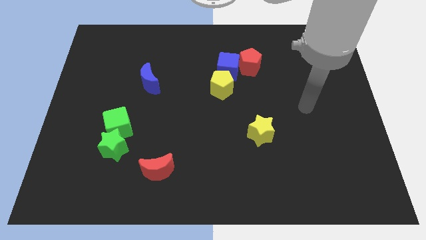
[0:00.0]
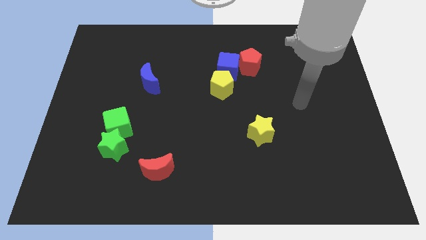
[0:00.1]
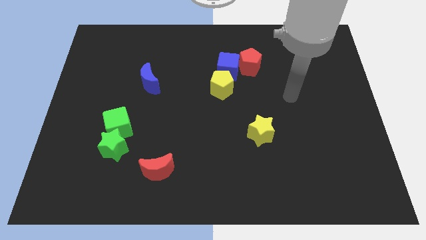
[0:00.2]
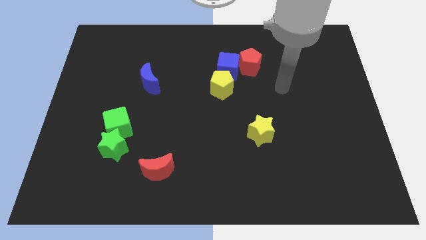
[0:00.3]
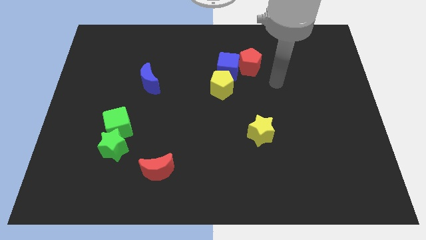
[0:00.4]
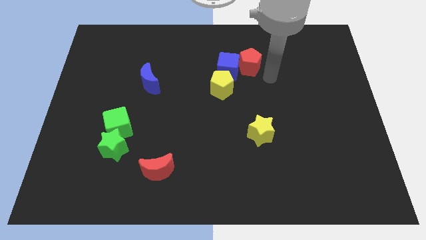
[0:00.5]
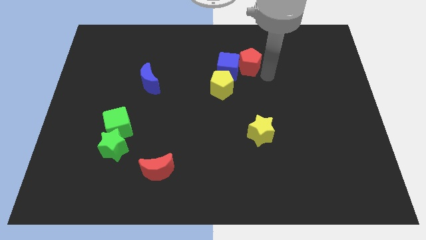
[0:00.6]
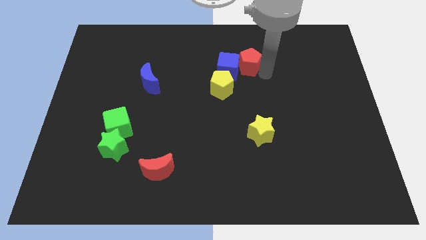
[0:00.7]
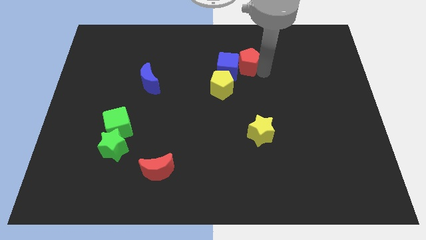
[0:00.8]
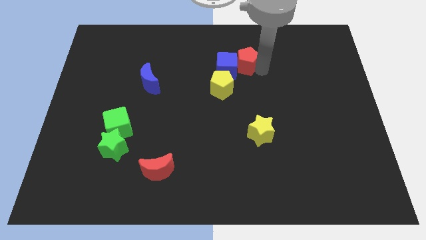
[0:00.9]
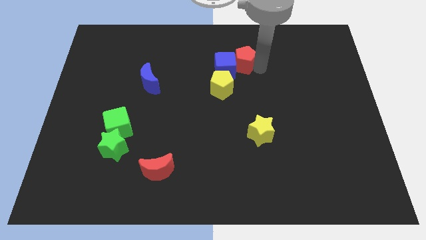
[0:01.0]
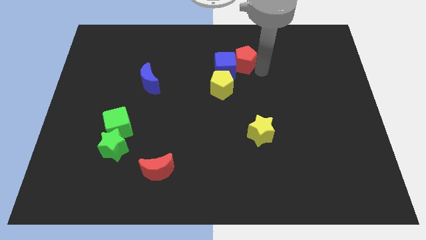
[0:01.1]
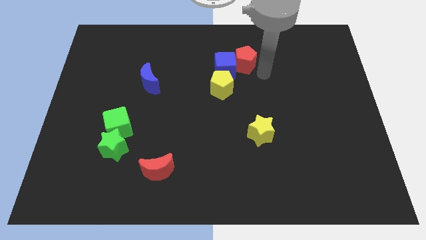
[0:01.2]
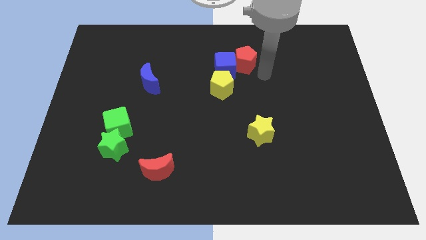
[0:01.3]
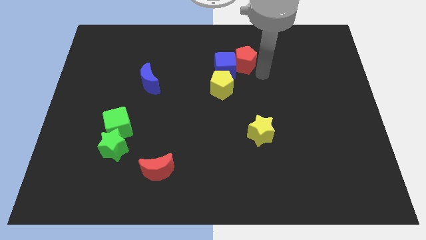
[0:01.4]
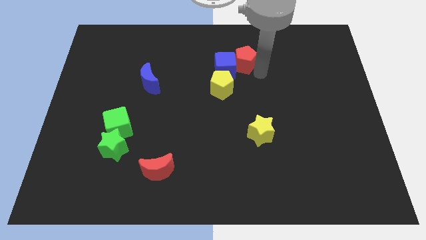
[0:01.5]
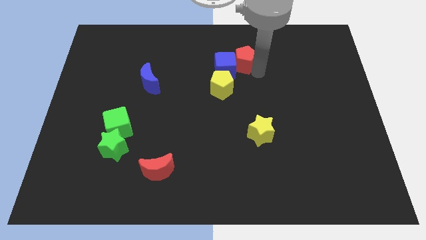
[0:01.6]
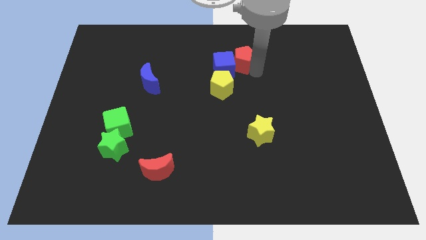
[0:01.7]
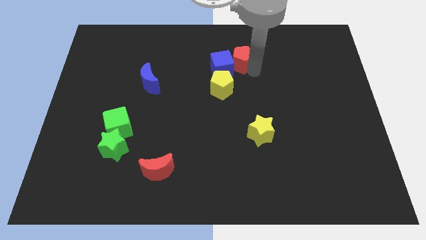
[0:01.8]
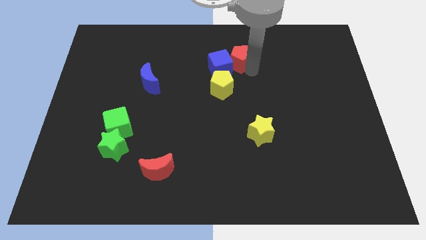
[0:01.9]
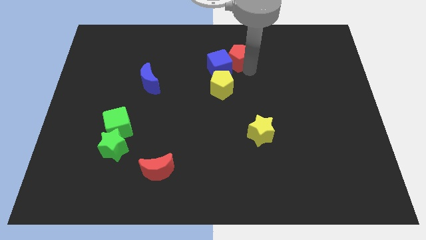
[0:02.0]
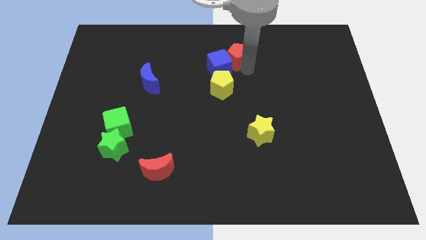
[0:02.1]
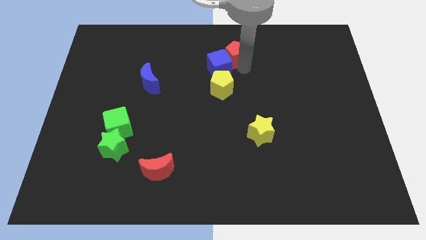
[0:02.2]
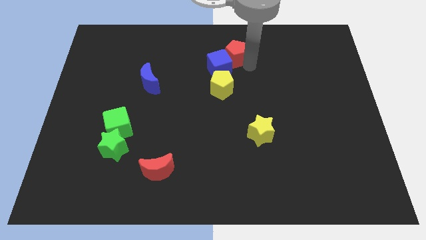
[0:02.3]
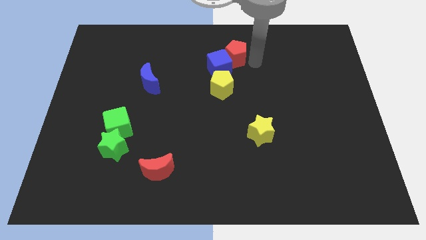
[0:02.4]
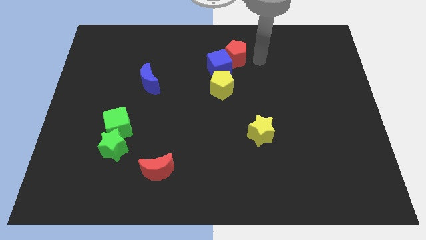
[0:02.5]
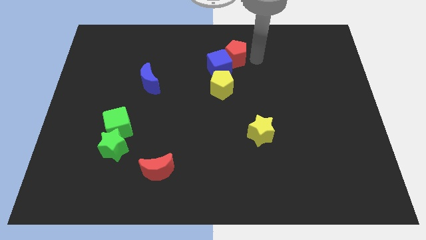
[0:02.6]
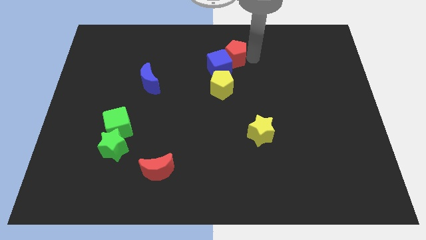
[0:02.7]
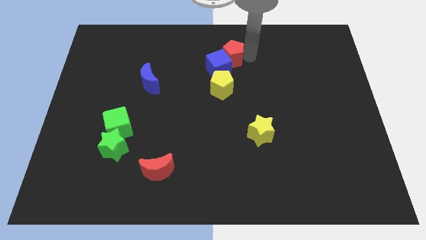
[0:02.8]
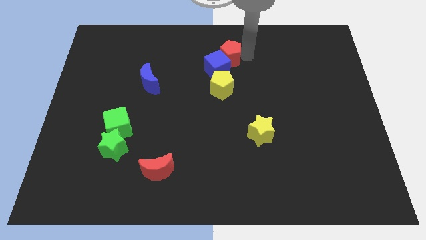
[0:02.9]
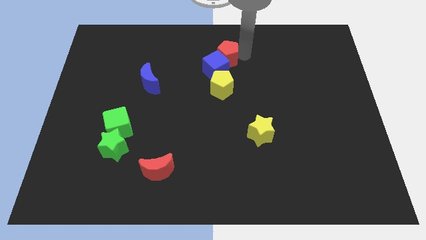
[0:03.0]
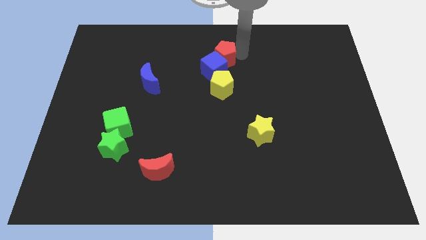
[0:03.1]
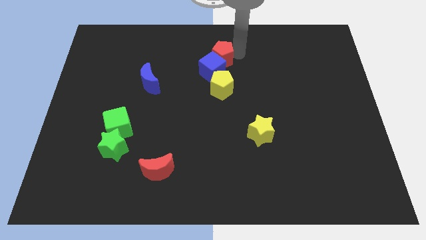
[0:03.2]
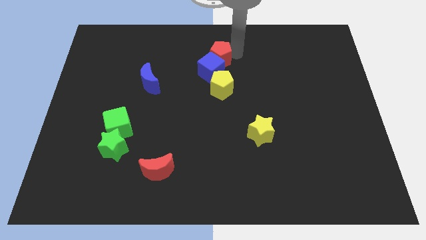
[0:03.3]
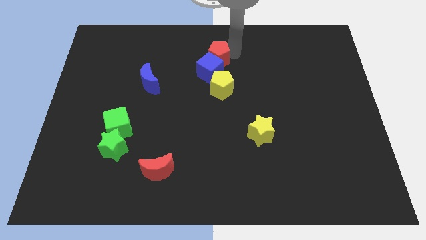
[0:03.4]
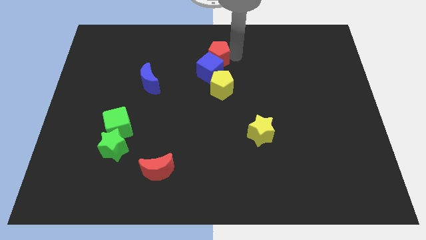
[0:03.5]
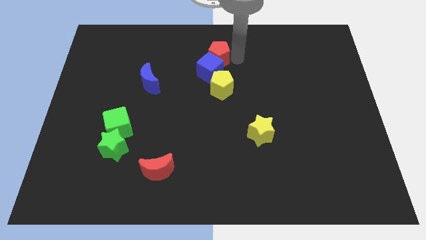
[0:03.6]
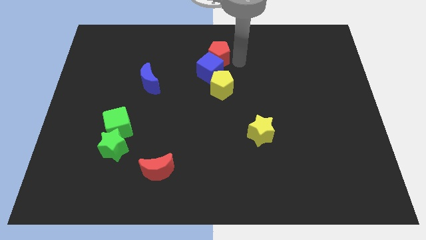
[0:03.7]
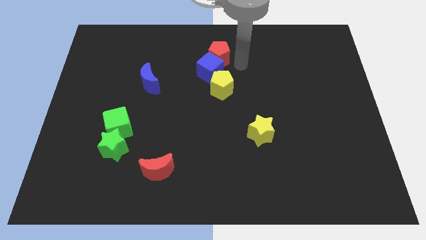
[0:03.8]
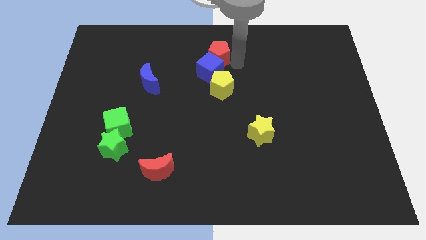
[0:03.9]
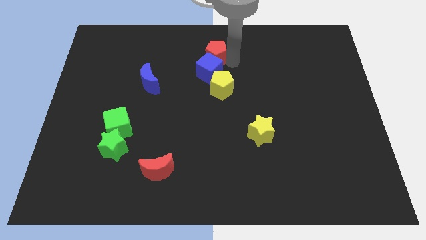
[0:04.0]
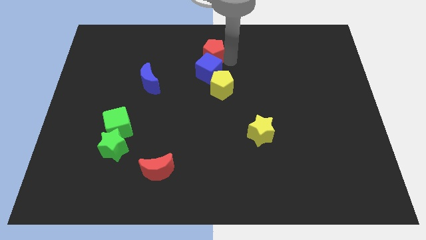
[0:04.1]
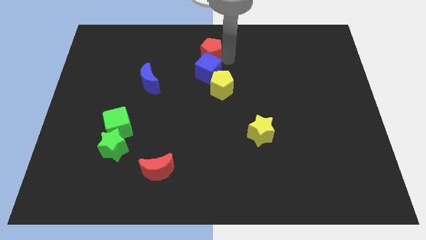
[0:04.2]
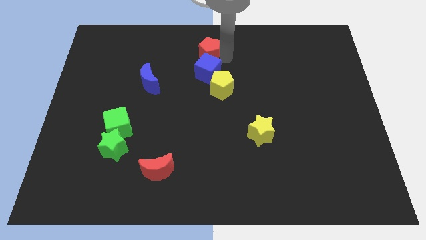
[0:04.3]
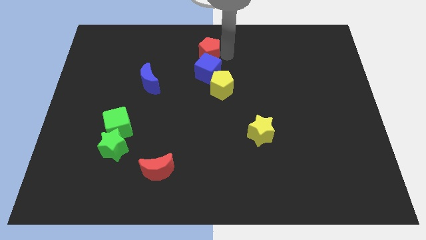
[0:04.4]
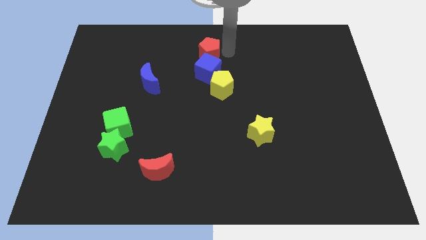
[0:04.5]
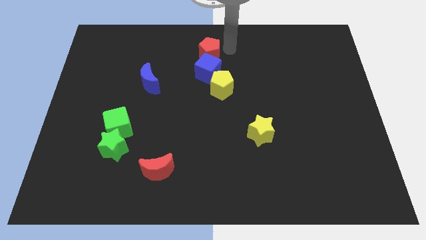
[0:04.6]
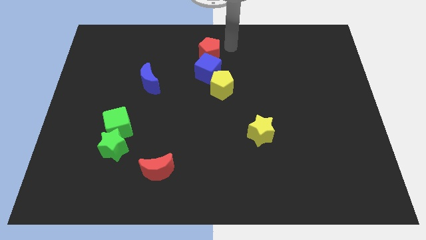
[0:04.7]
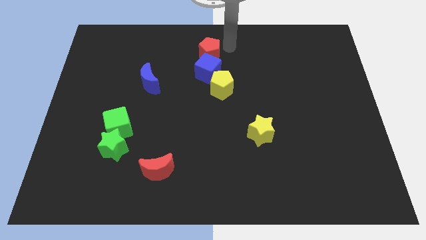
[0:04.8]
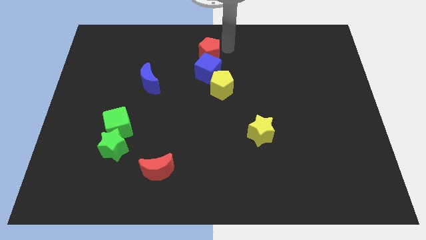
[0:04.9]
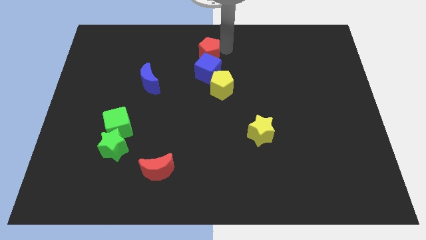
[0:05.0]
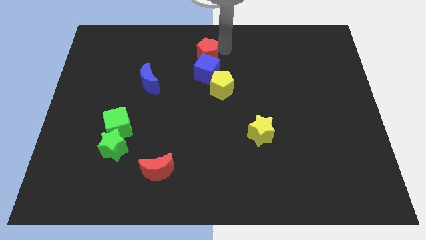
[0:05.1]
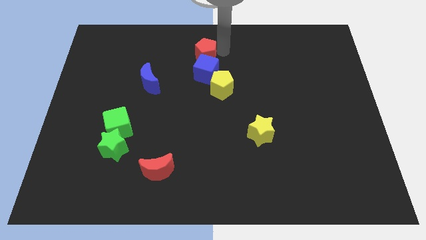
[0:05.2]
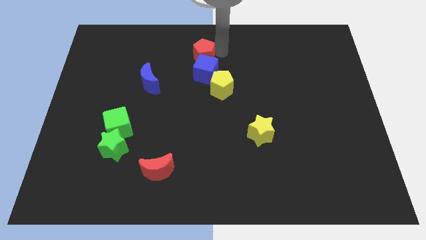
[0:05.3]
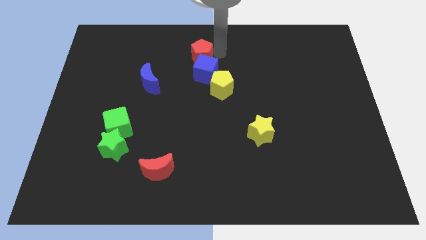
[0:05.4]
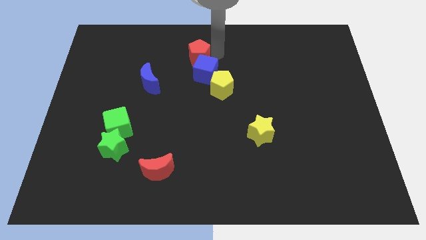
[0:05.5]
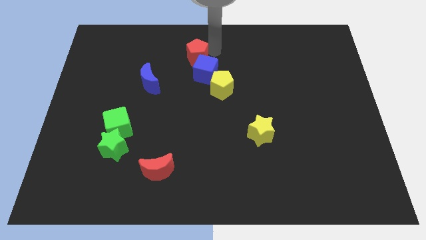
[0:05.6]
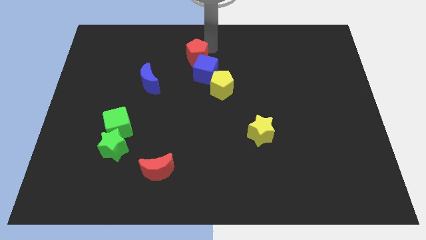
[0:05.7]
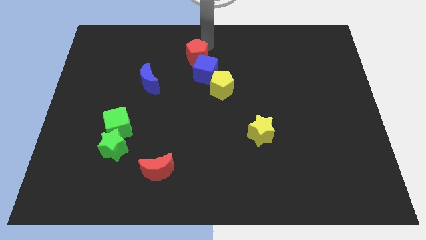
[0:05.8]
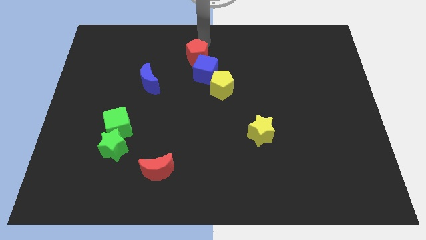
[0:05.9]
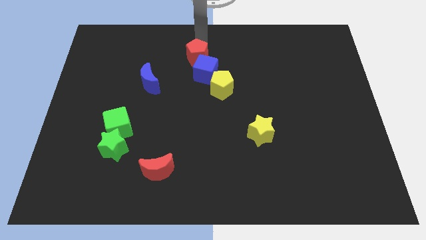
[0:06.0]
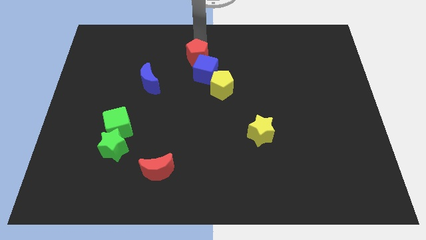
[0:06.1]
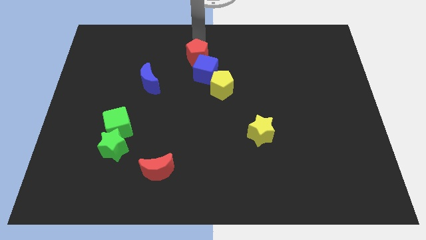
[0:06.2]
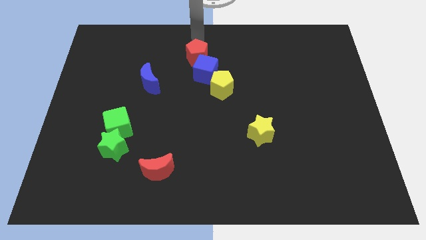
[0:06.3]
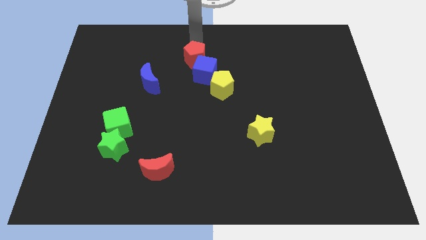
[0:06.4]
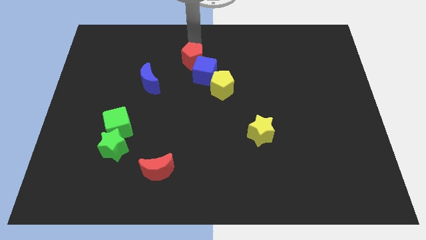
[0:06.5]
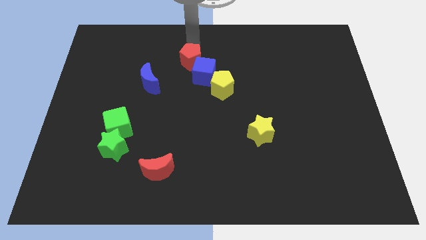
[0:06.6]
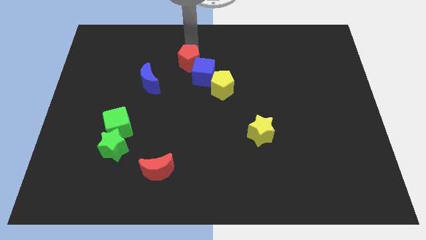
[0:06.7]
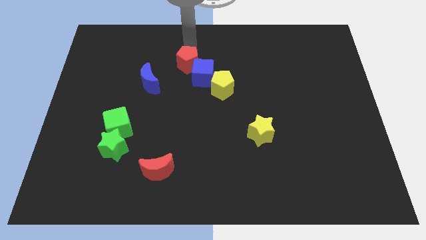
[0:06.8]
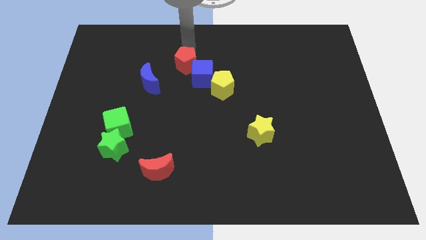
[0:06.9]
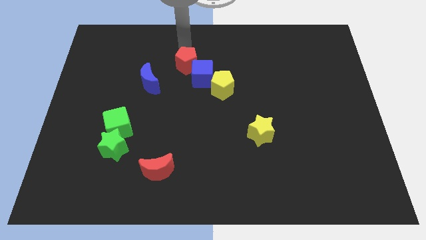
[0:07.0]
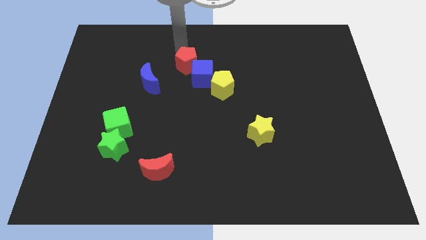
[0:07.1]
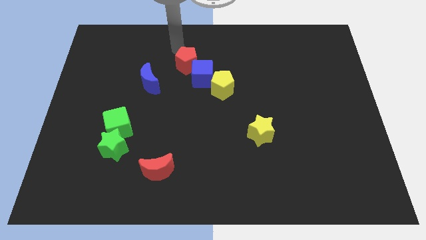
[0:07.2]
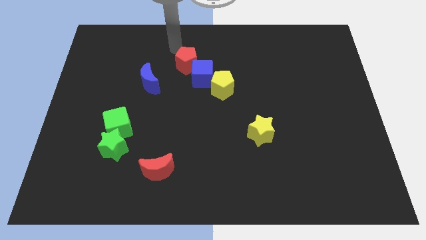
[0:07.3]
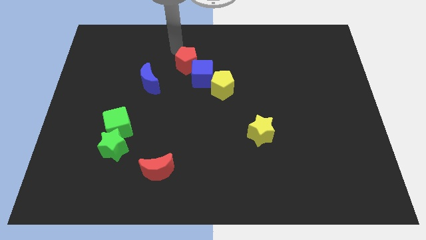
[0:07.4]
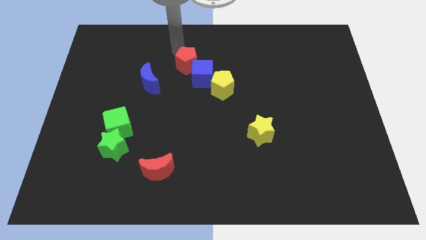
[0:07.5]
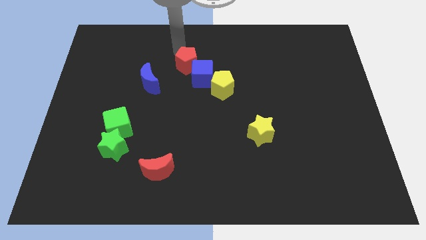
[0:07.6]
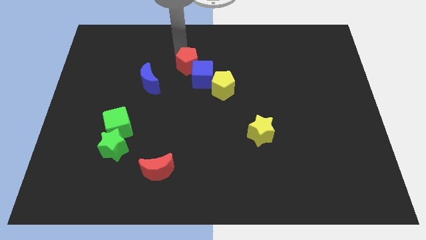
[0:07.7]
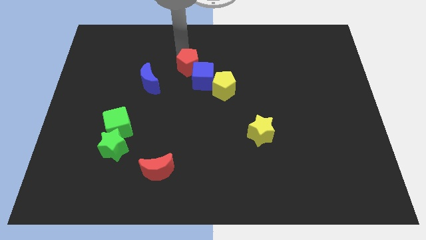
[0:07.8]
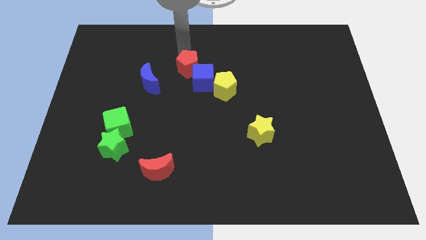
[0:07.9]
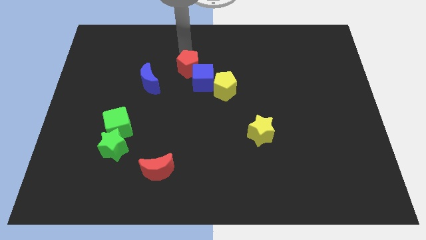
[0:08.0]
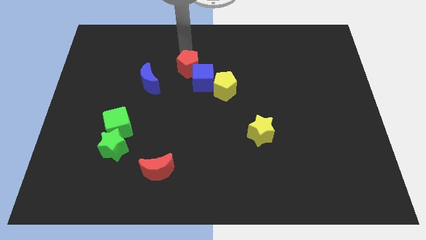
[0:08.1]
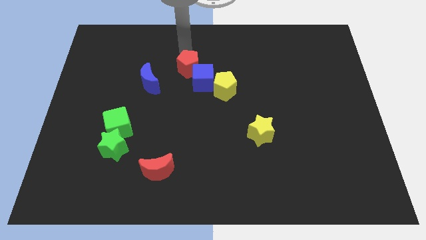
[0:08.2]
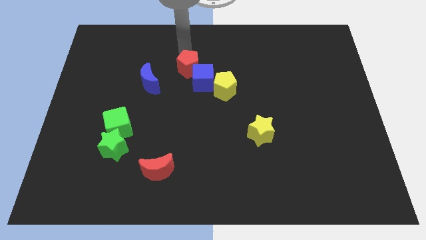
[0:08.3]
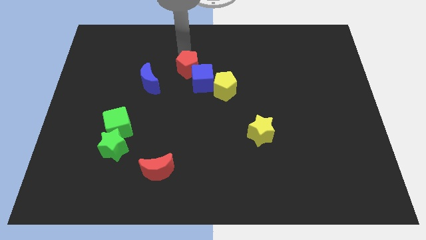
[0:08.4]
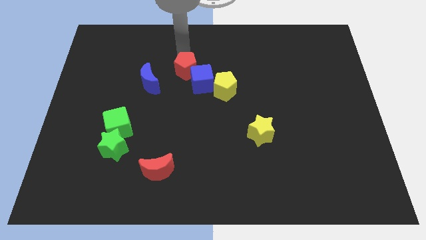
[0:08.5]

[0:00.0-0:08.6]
put the red pentagon just right of the blue moon
